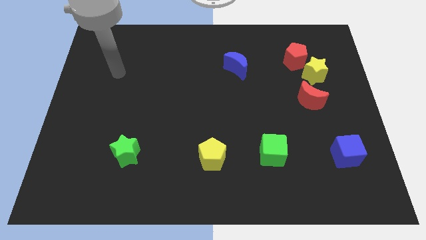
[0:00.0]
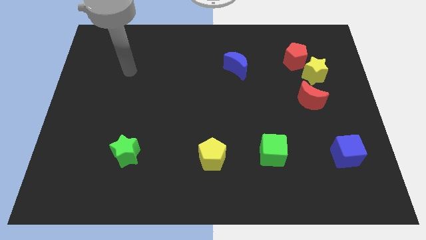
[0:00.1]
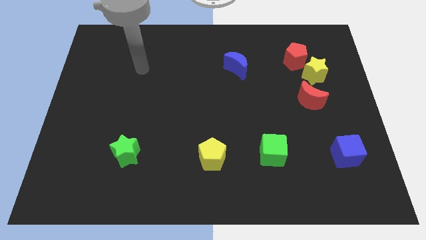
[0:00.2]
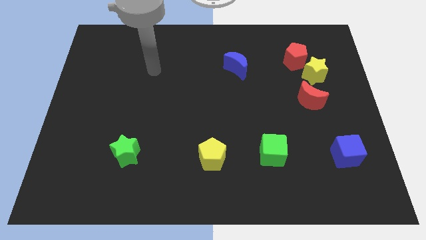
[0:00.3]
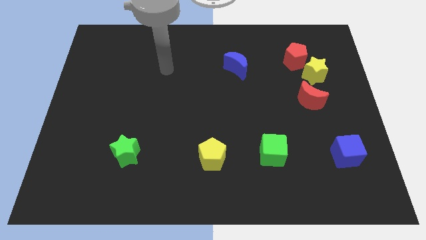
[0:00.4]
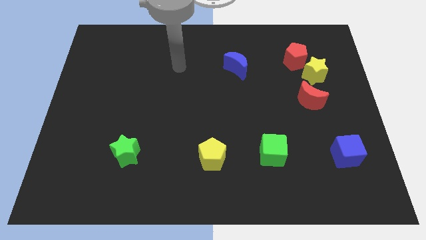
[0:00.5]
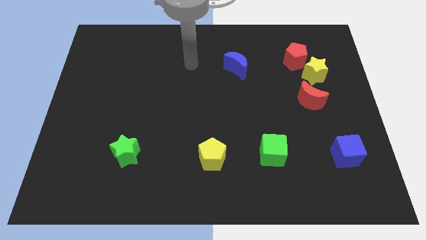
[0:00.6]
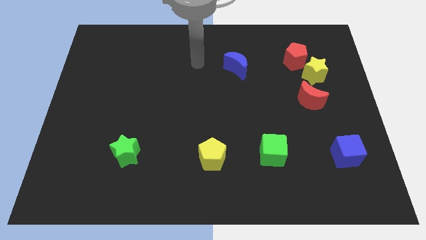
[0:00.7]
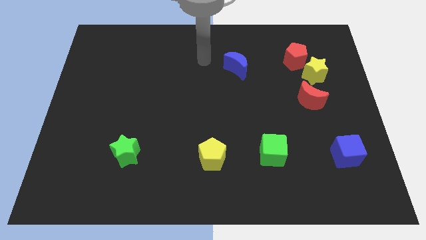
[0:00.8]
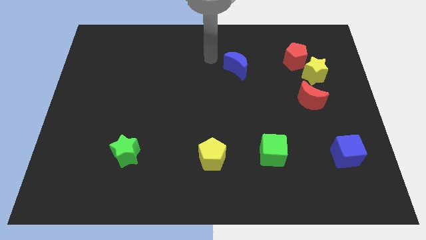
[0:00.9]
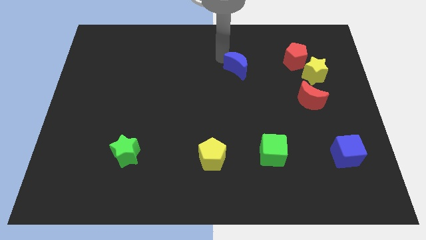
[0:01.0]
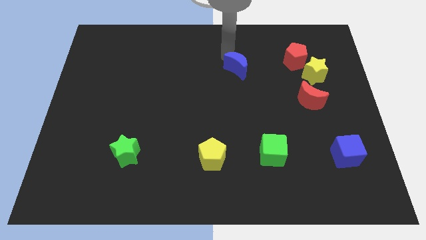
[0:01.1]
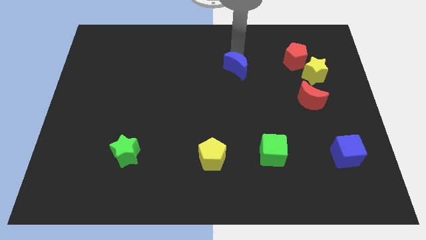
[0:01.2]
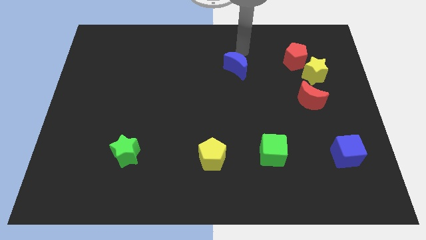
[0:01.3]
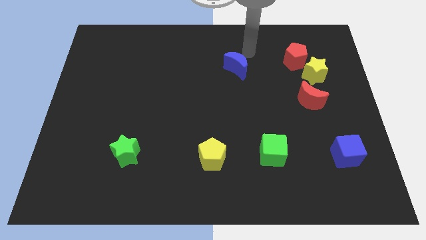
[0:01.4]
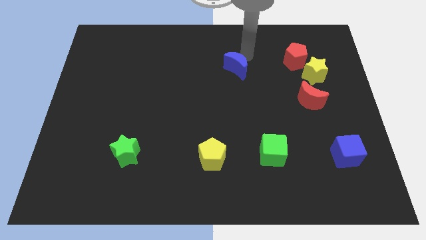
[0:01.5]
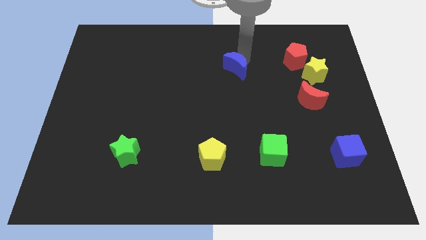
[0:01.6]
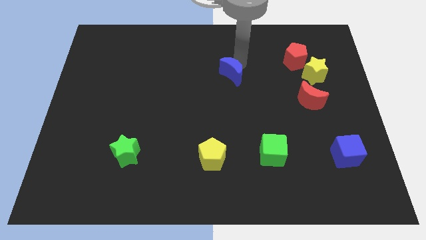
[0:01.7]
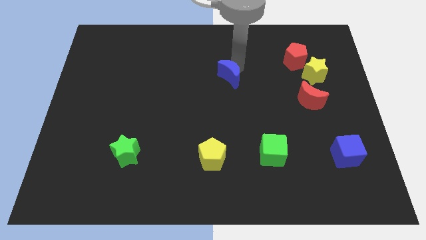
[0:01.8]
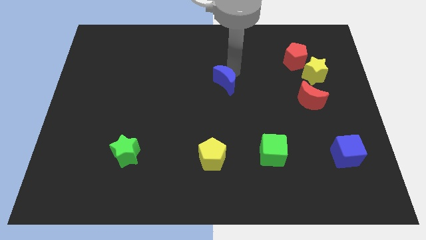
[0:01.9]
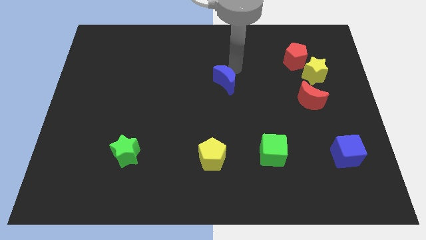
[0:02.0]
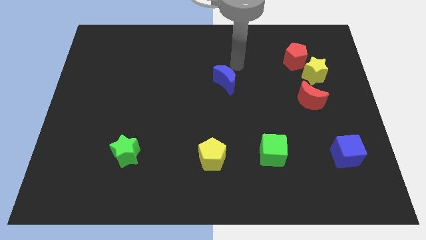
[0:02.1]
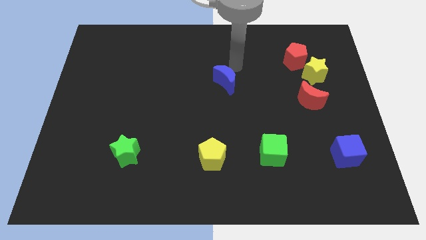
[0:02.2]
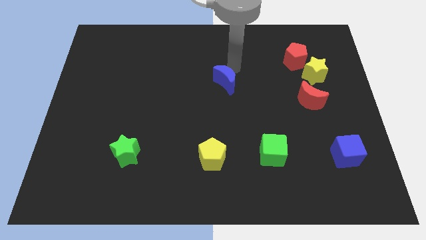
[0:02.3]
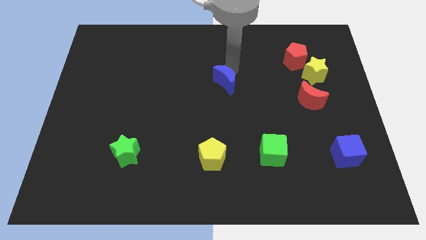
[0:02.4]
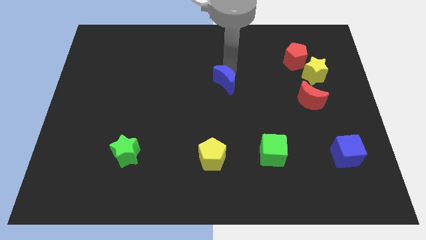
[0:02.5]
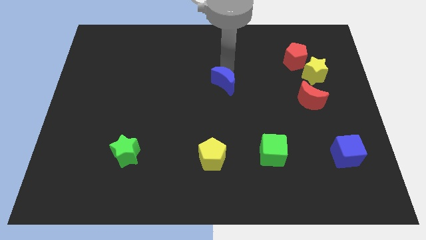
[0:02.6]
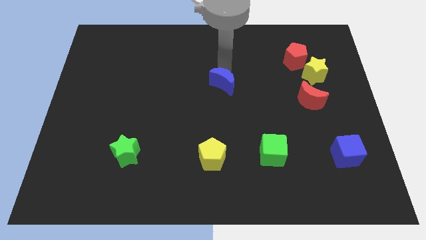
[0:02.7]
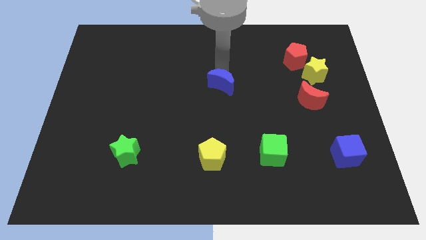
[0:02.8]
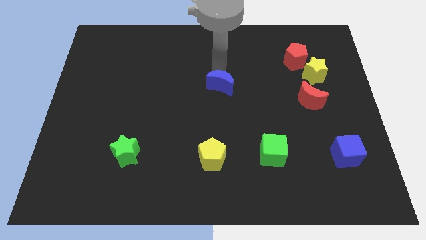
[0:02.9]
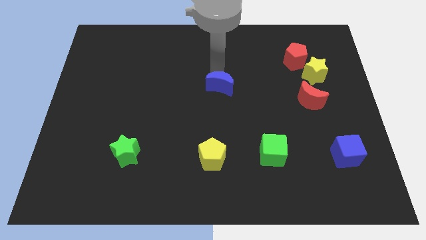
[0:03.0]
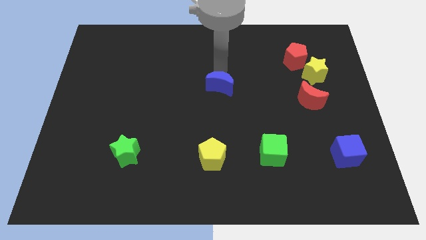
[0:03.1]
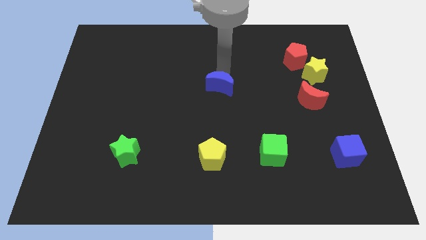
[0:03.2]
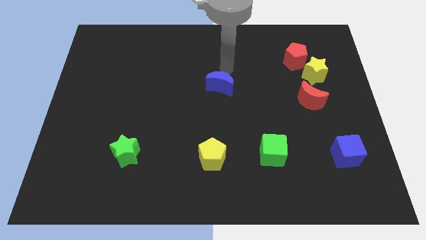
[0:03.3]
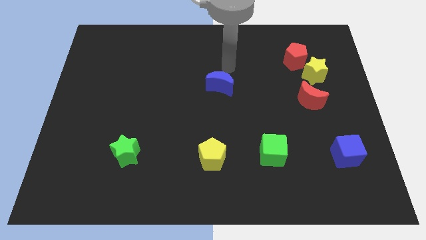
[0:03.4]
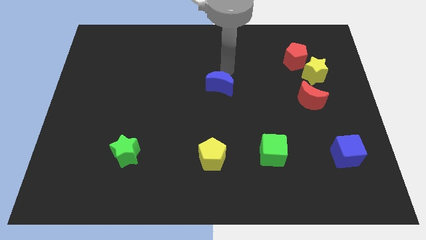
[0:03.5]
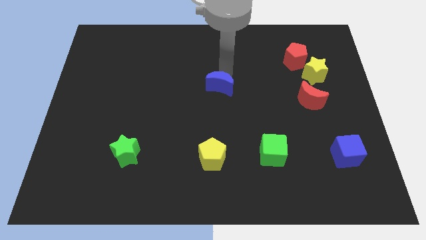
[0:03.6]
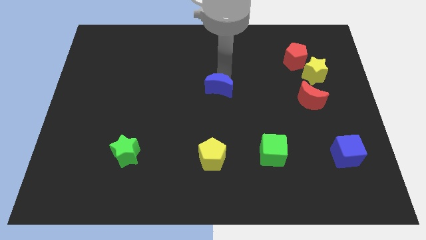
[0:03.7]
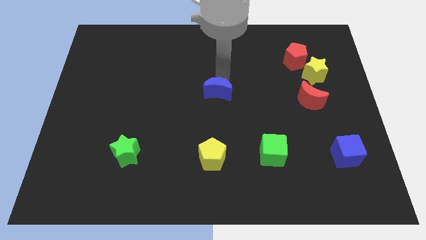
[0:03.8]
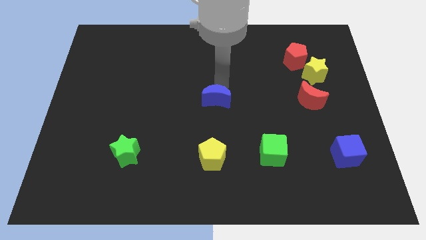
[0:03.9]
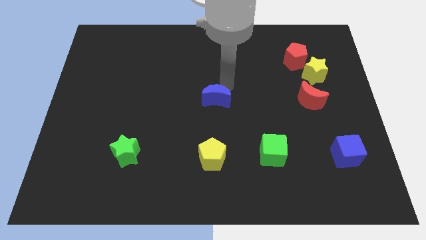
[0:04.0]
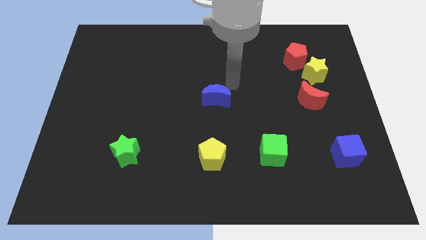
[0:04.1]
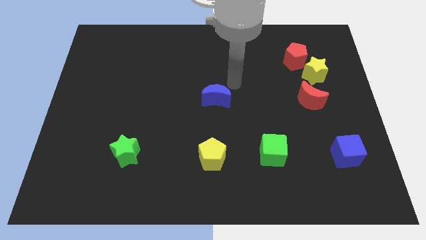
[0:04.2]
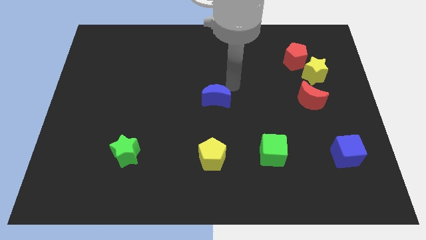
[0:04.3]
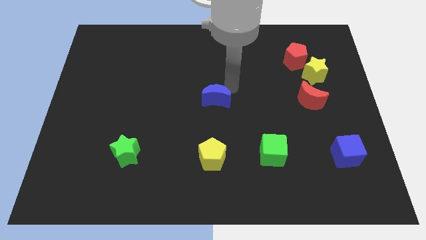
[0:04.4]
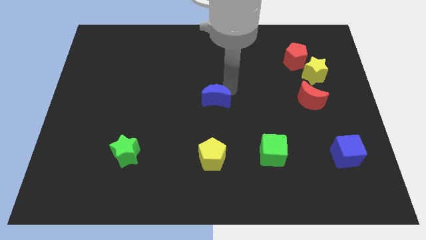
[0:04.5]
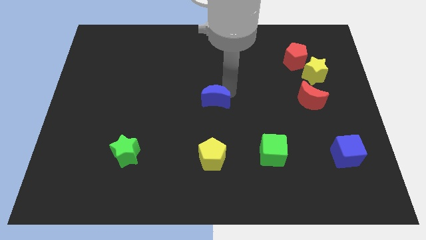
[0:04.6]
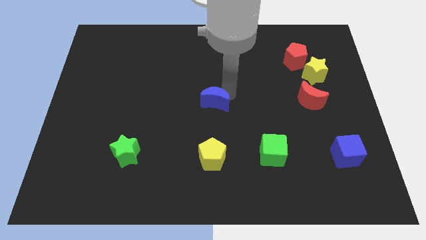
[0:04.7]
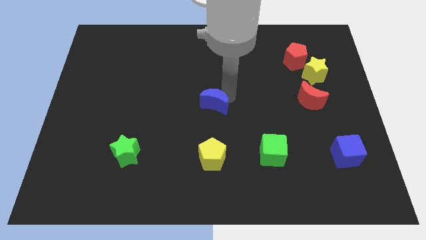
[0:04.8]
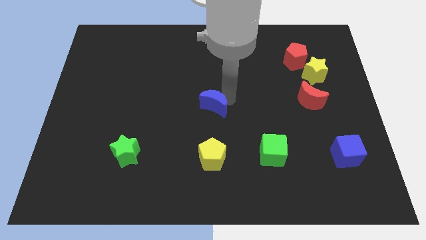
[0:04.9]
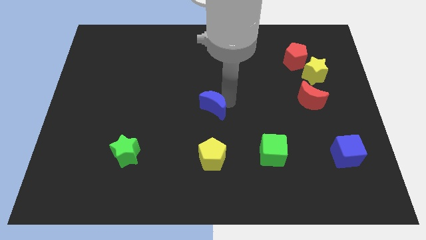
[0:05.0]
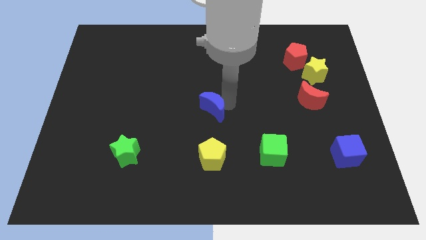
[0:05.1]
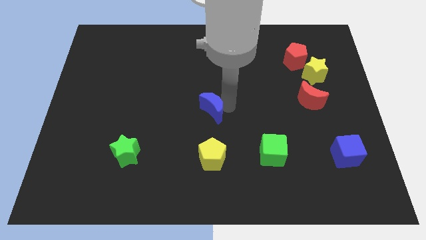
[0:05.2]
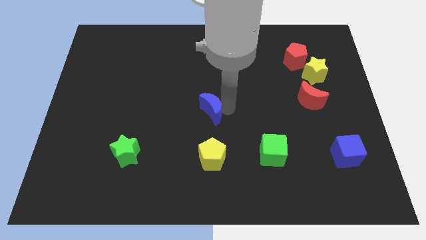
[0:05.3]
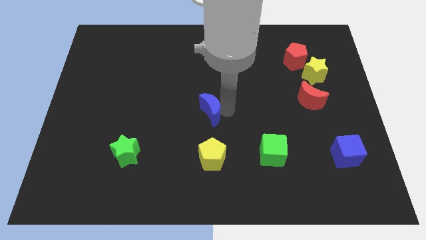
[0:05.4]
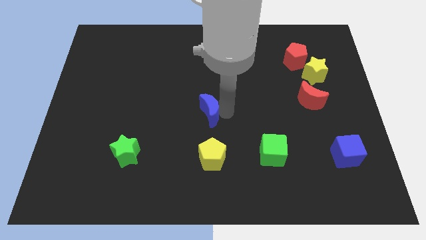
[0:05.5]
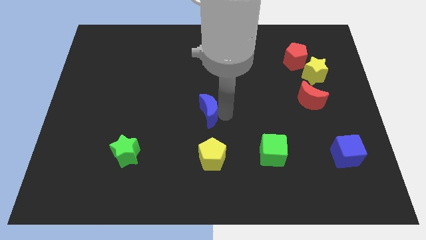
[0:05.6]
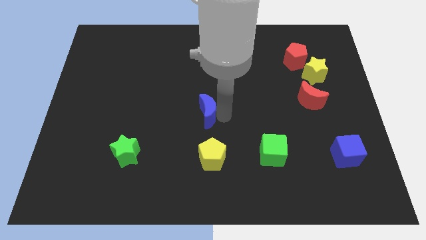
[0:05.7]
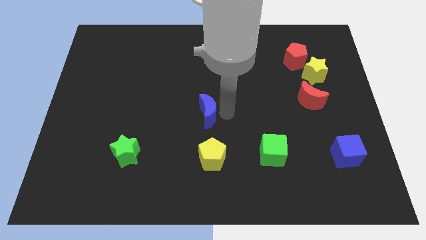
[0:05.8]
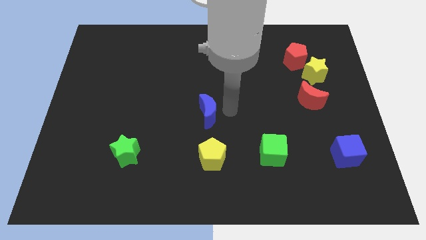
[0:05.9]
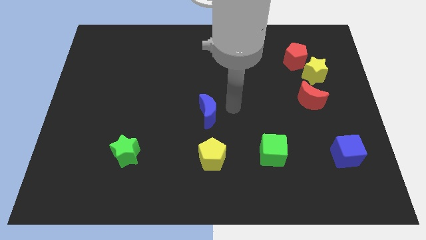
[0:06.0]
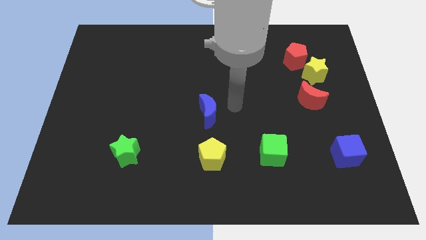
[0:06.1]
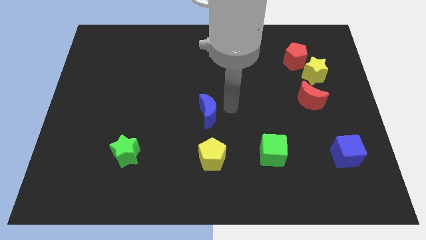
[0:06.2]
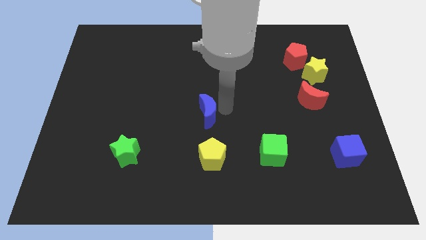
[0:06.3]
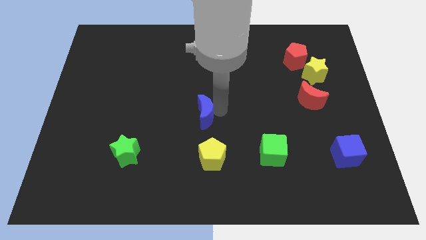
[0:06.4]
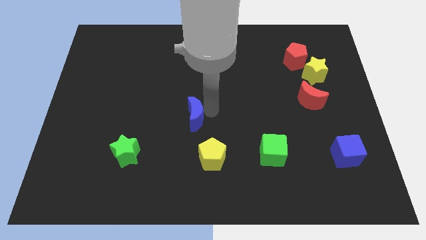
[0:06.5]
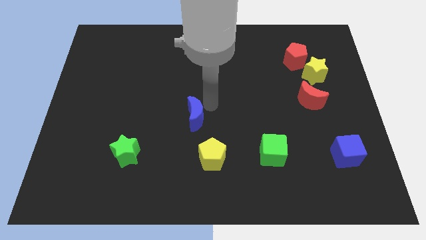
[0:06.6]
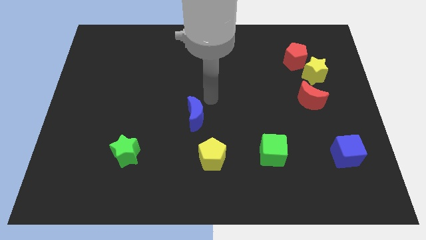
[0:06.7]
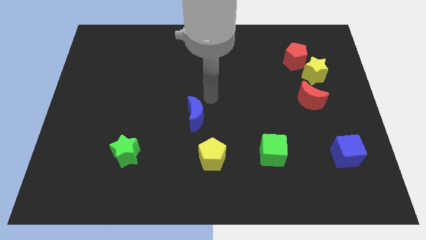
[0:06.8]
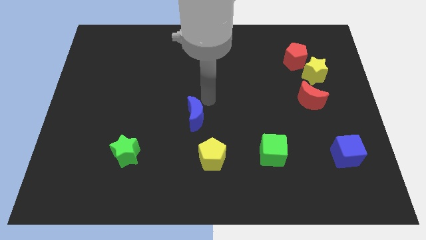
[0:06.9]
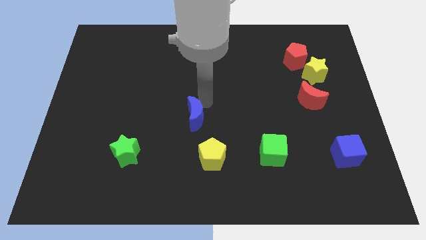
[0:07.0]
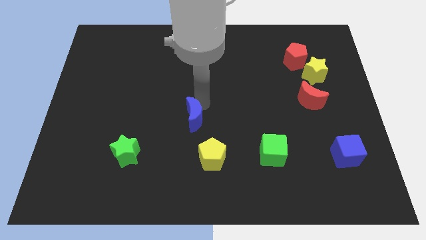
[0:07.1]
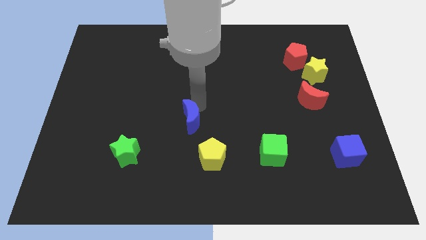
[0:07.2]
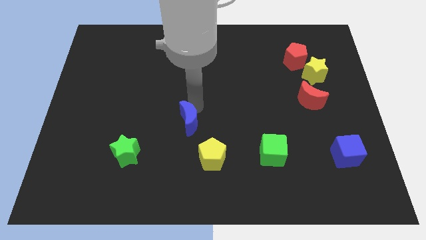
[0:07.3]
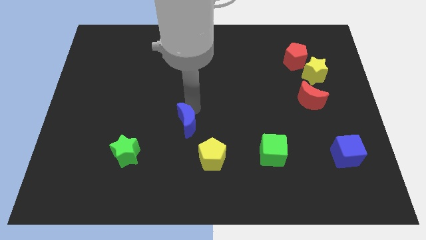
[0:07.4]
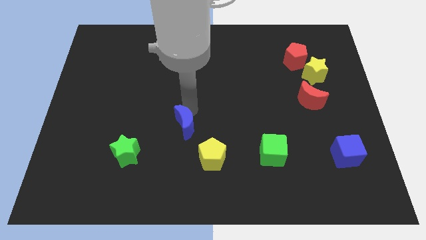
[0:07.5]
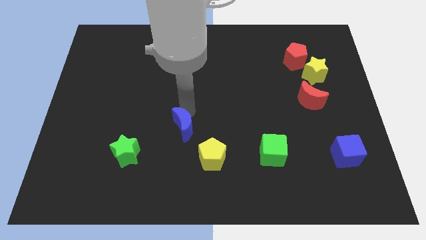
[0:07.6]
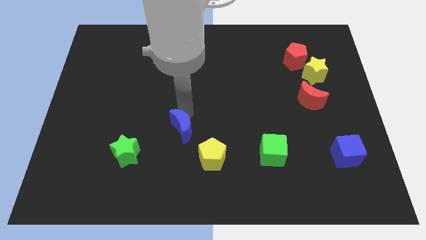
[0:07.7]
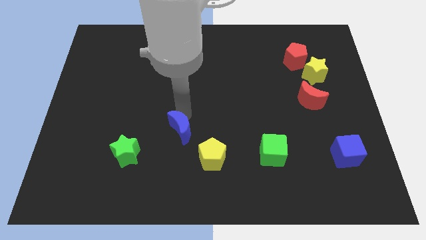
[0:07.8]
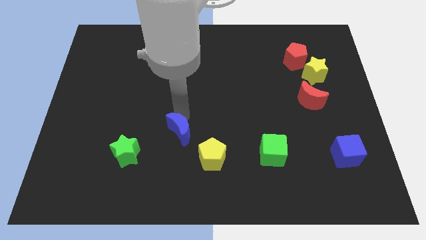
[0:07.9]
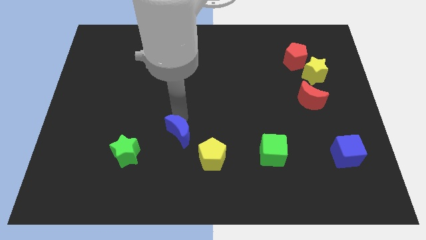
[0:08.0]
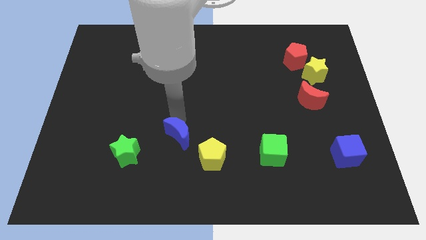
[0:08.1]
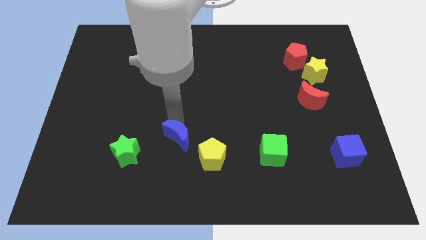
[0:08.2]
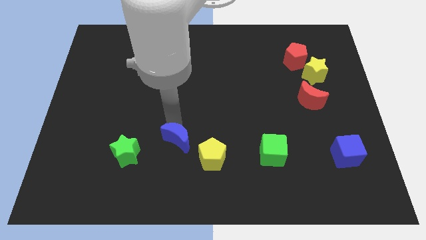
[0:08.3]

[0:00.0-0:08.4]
put the blue moon just left of the yellow pentagon
